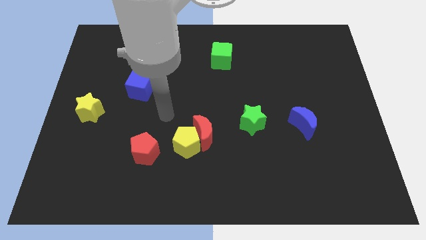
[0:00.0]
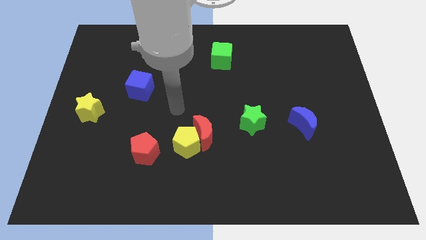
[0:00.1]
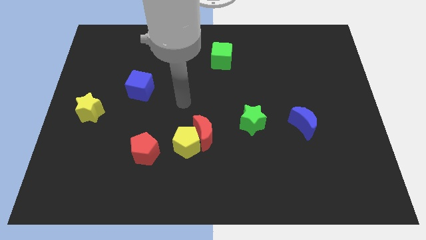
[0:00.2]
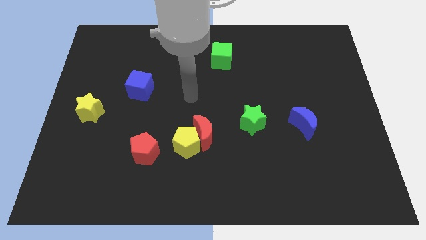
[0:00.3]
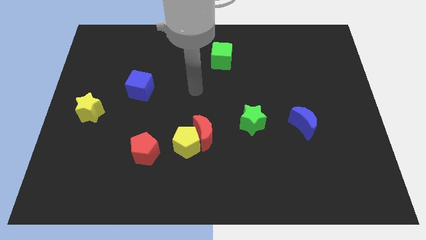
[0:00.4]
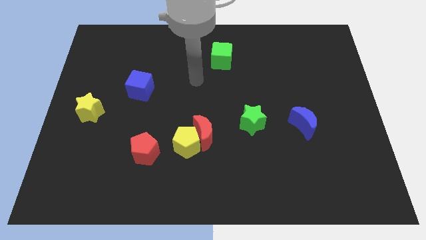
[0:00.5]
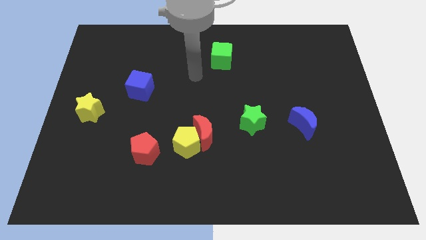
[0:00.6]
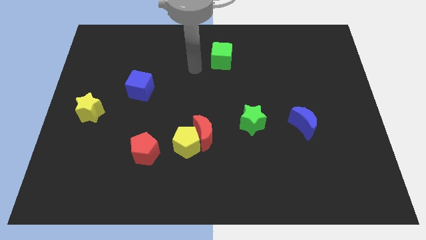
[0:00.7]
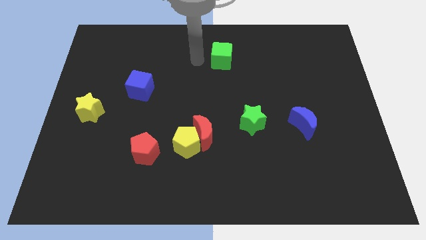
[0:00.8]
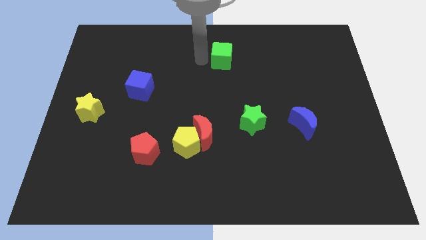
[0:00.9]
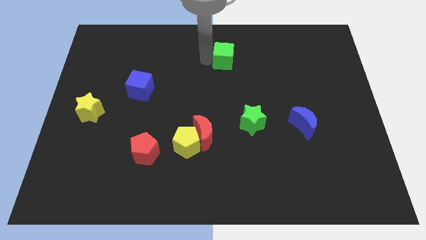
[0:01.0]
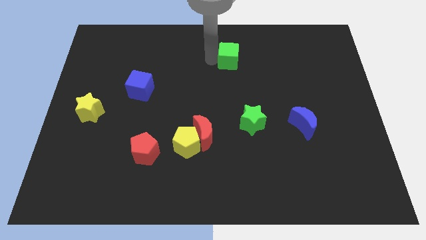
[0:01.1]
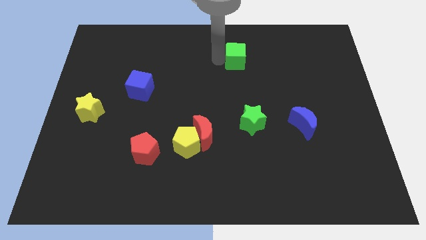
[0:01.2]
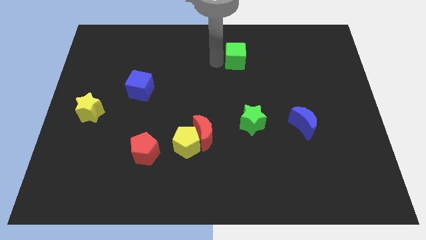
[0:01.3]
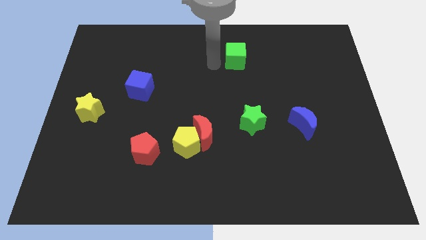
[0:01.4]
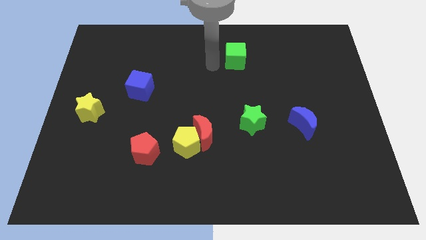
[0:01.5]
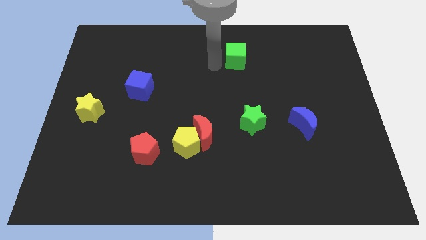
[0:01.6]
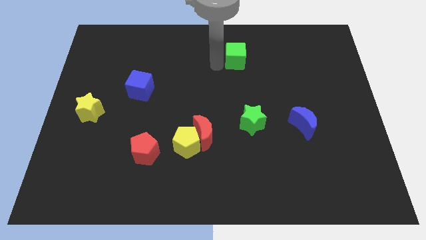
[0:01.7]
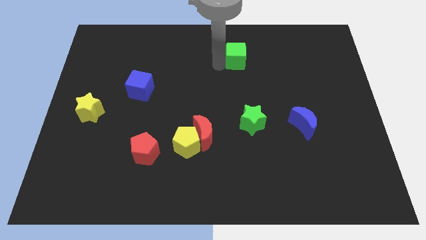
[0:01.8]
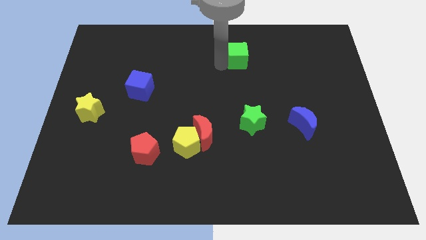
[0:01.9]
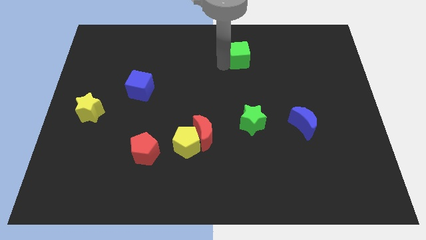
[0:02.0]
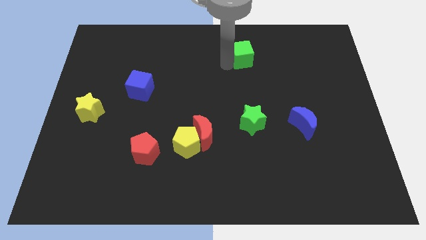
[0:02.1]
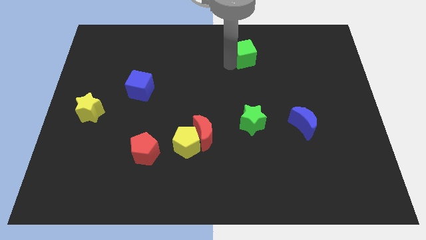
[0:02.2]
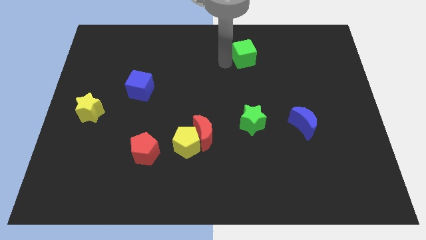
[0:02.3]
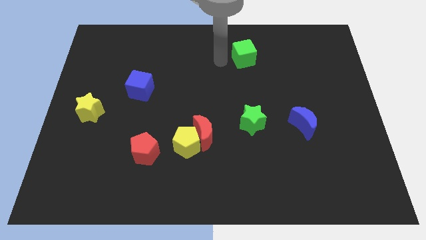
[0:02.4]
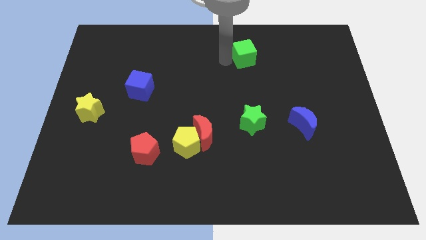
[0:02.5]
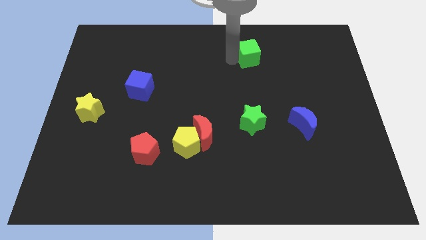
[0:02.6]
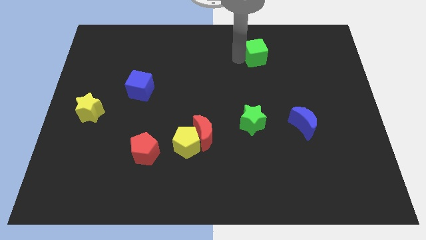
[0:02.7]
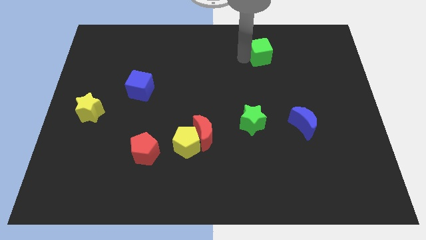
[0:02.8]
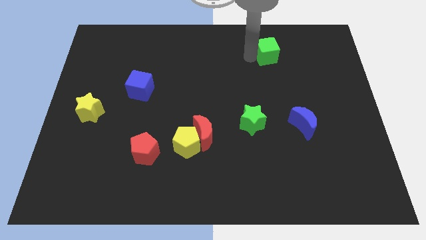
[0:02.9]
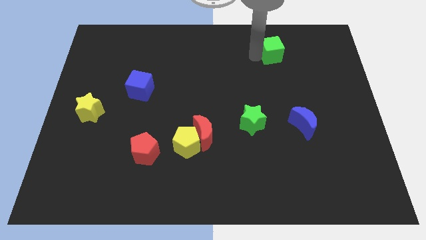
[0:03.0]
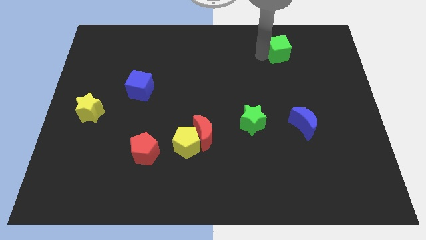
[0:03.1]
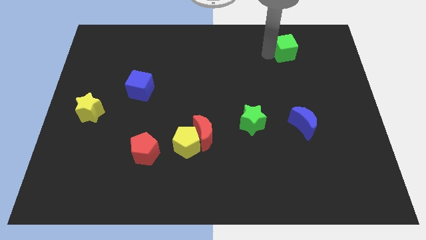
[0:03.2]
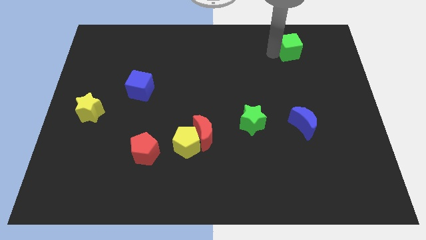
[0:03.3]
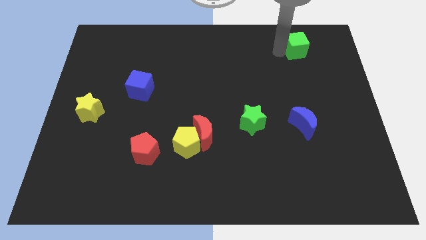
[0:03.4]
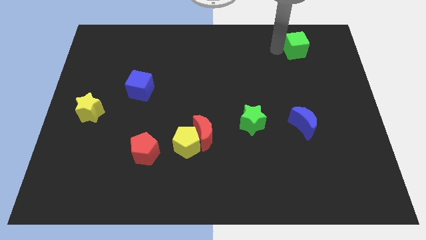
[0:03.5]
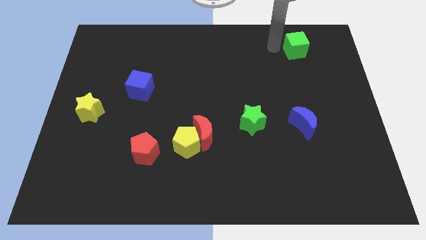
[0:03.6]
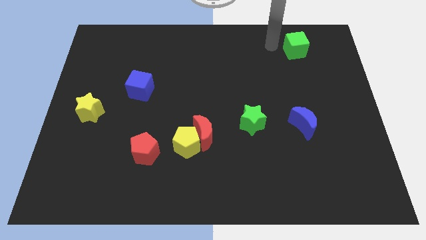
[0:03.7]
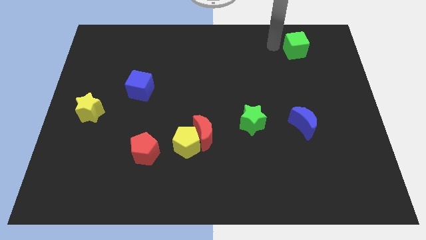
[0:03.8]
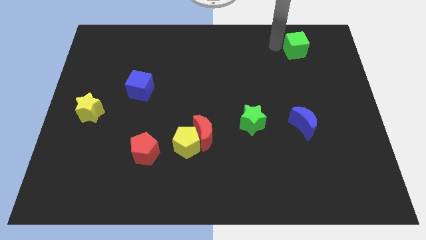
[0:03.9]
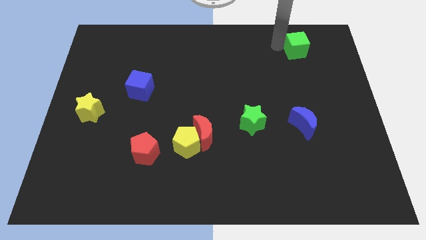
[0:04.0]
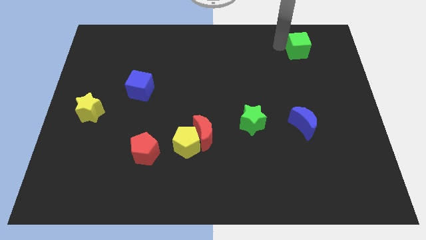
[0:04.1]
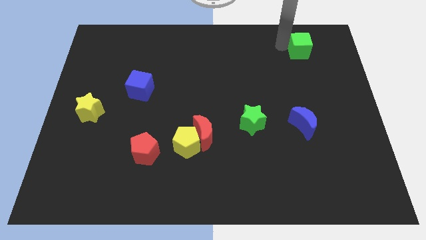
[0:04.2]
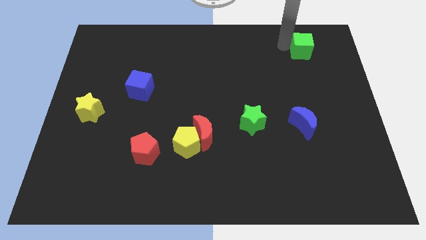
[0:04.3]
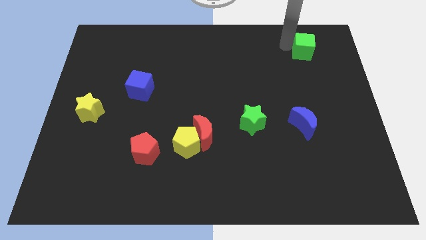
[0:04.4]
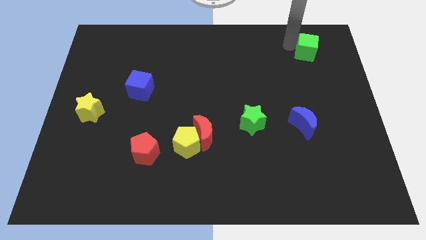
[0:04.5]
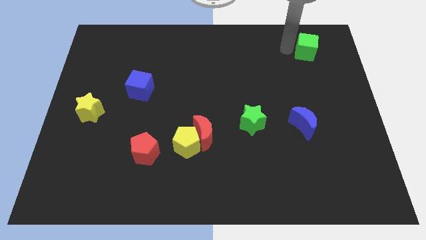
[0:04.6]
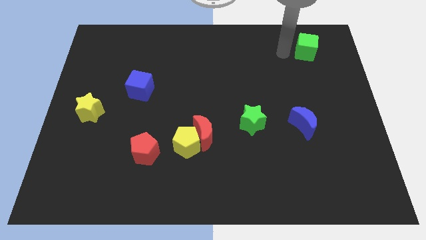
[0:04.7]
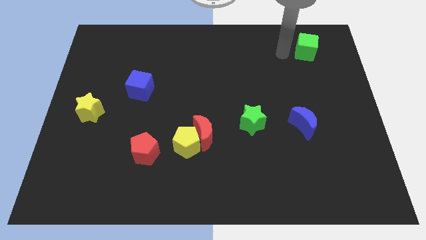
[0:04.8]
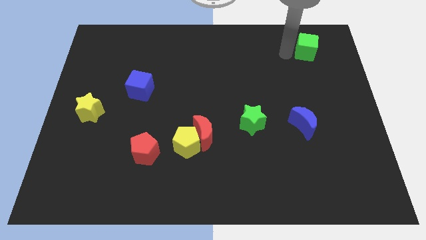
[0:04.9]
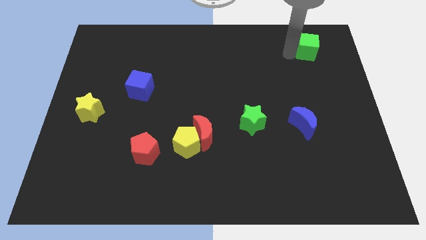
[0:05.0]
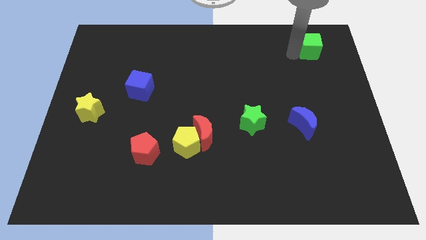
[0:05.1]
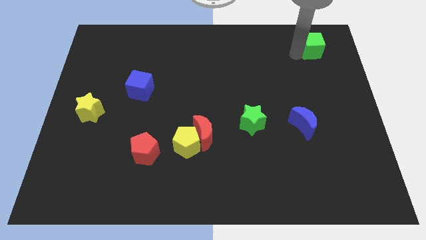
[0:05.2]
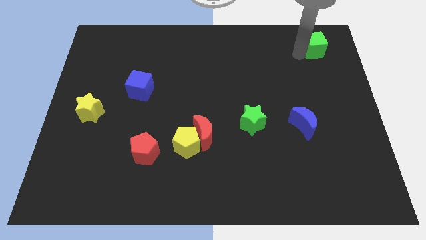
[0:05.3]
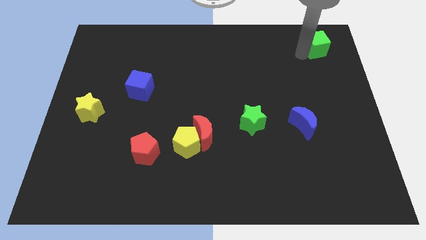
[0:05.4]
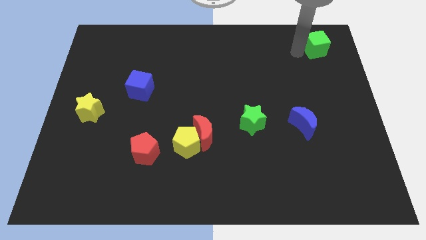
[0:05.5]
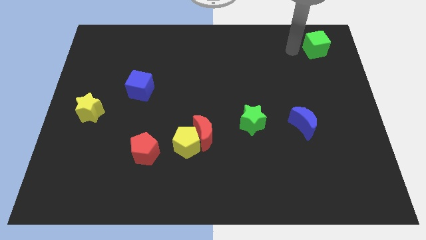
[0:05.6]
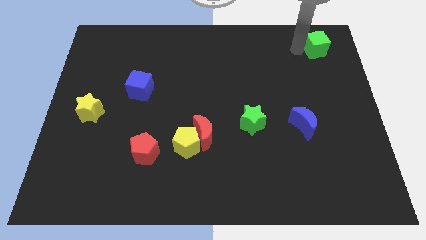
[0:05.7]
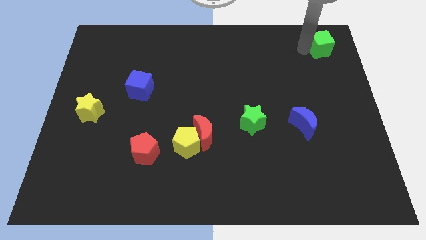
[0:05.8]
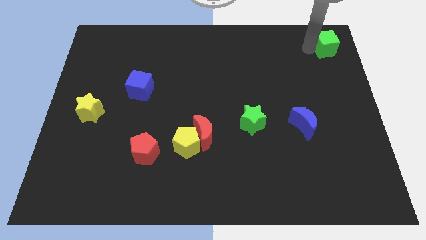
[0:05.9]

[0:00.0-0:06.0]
push the green cube to the top right of the board

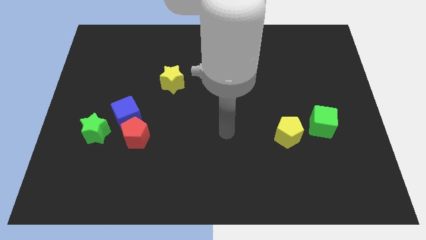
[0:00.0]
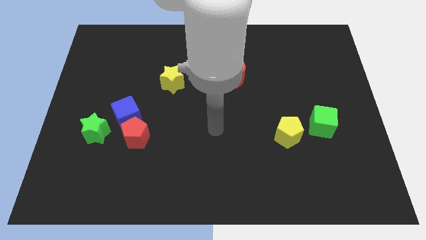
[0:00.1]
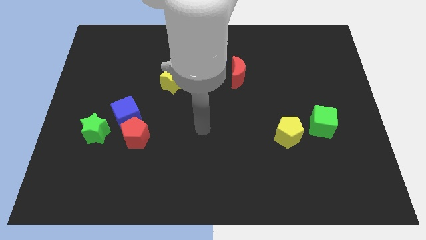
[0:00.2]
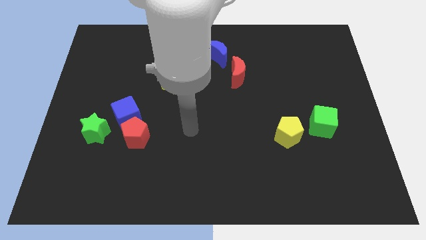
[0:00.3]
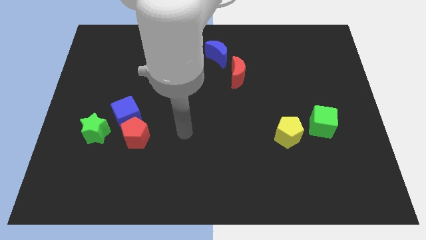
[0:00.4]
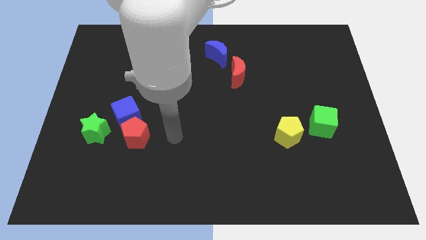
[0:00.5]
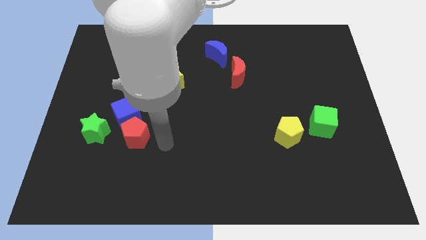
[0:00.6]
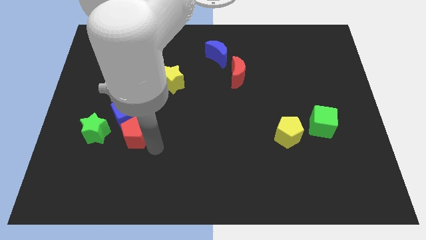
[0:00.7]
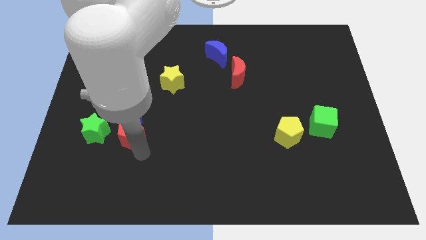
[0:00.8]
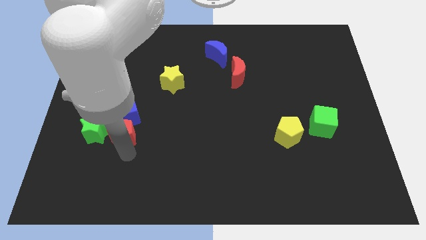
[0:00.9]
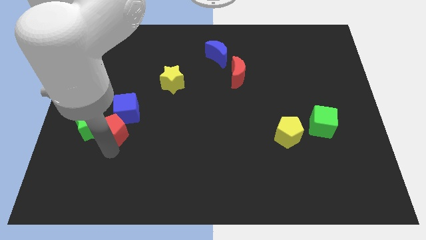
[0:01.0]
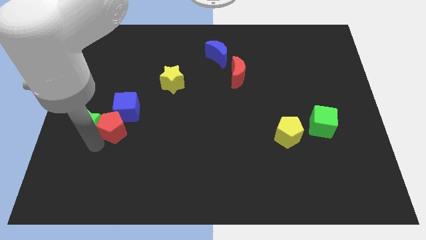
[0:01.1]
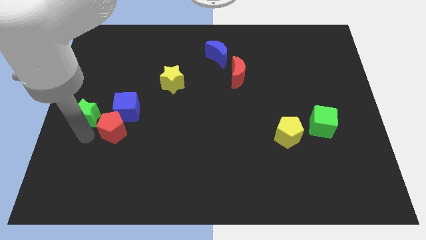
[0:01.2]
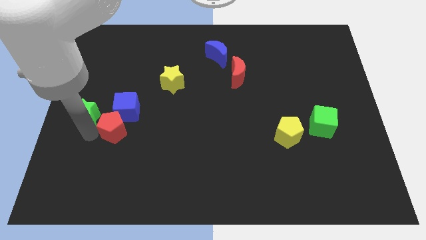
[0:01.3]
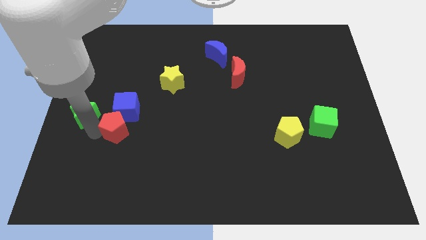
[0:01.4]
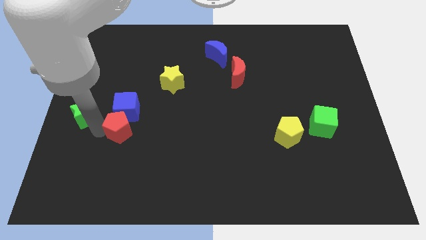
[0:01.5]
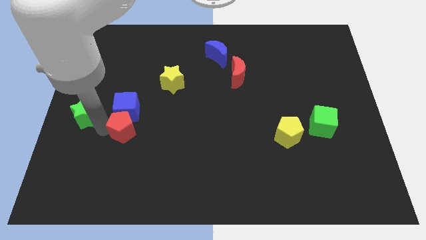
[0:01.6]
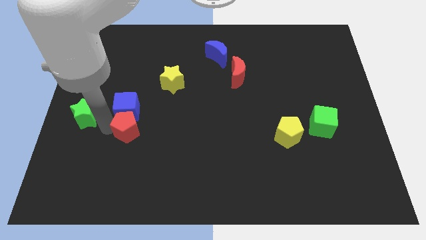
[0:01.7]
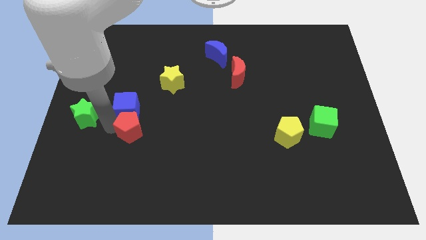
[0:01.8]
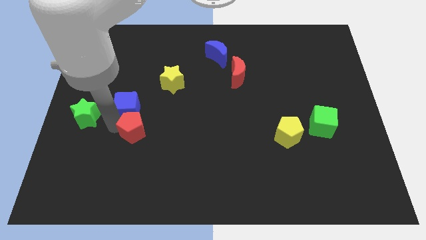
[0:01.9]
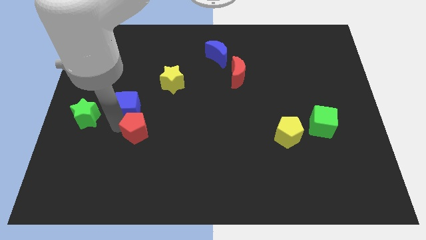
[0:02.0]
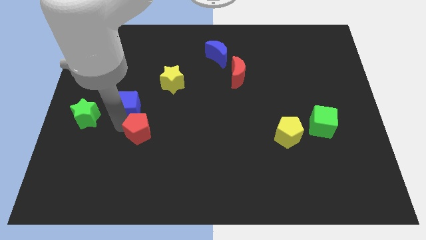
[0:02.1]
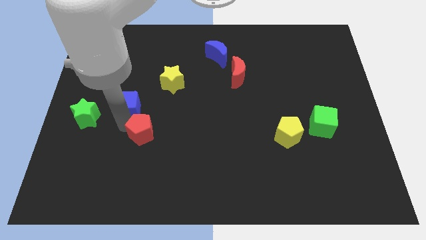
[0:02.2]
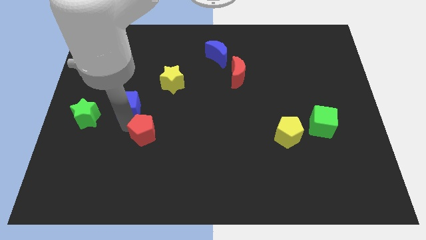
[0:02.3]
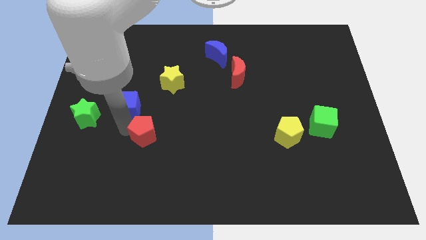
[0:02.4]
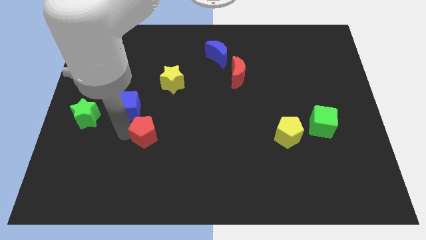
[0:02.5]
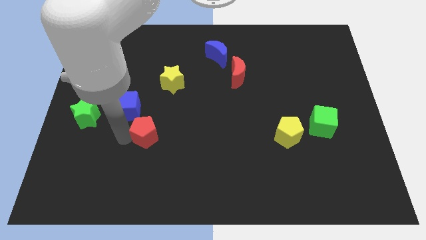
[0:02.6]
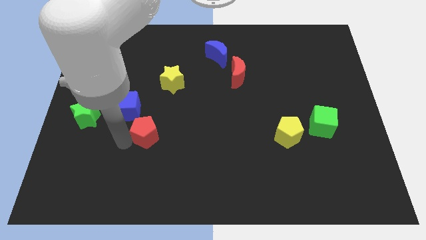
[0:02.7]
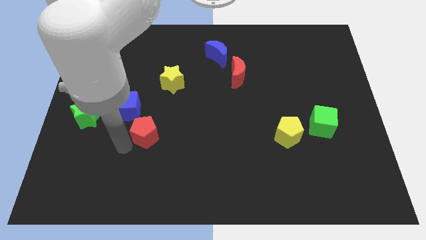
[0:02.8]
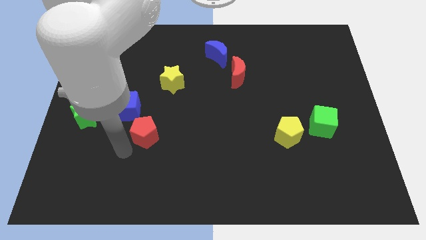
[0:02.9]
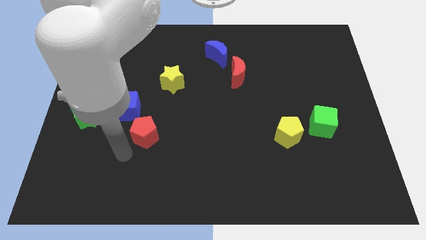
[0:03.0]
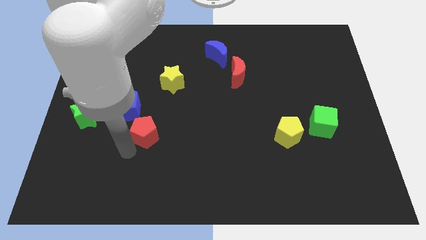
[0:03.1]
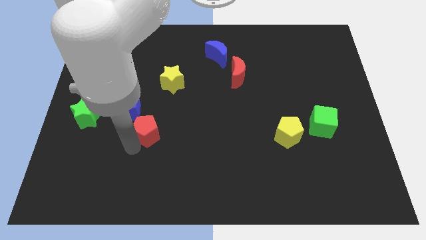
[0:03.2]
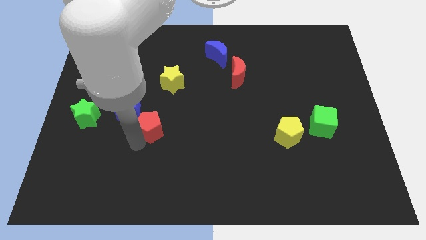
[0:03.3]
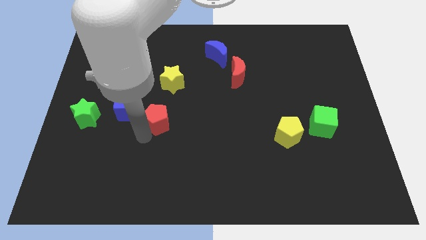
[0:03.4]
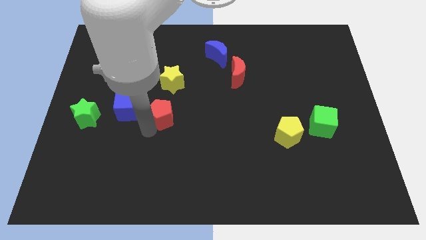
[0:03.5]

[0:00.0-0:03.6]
push the red pentagon to the center of the board
